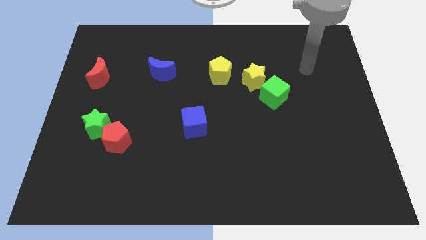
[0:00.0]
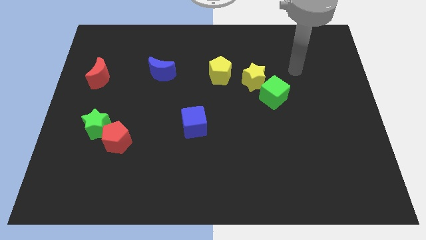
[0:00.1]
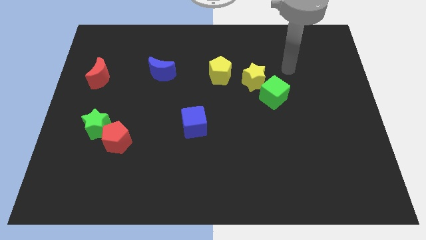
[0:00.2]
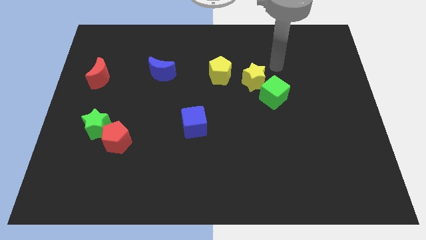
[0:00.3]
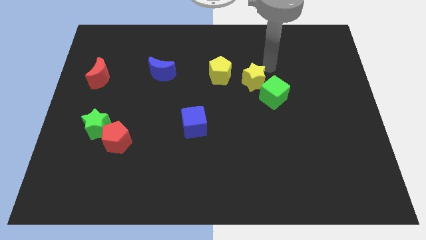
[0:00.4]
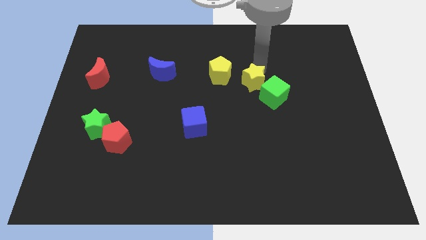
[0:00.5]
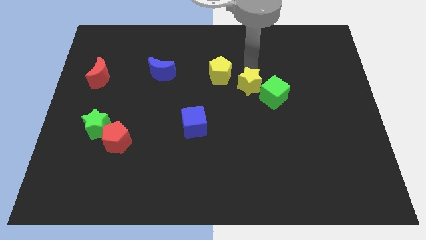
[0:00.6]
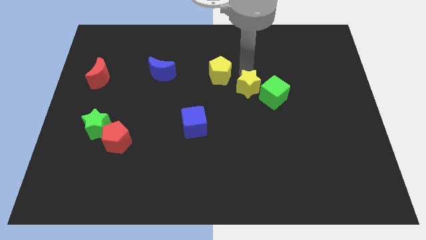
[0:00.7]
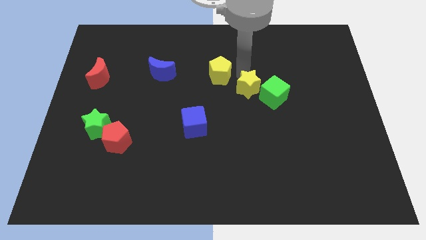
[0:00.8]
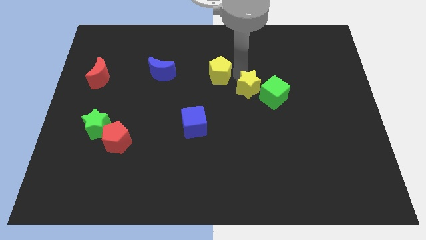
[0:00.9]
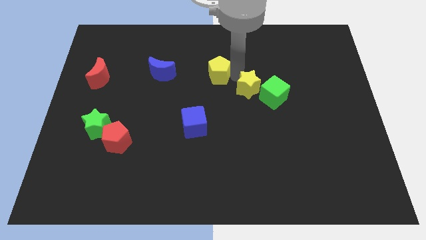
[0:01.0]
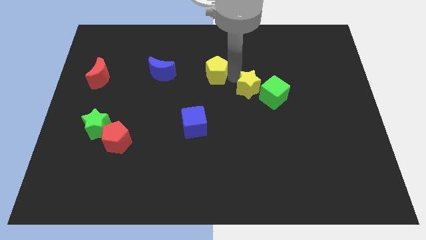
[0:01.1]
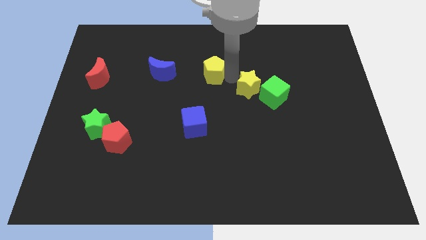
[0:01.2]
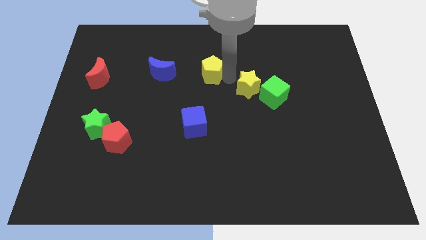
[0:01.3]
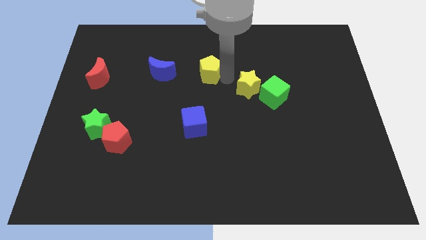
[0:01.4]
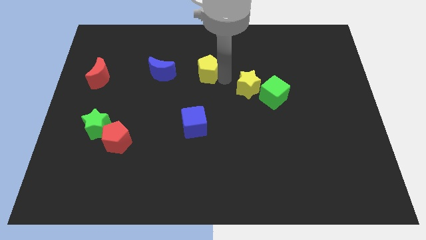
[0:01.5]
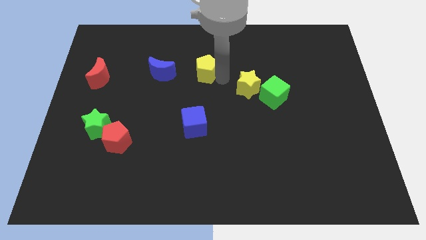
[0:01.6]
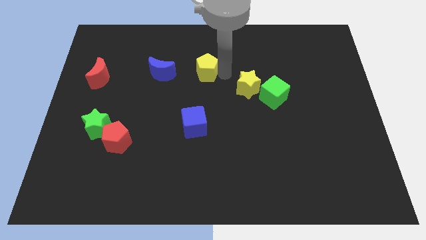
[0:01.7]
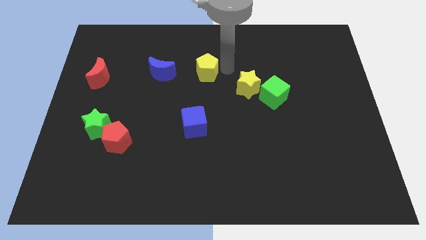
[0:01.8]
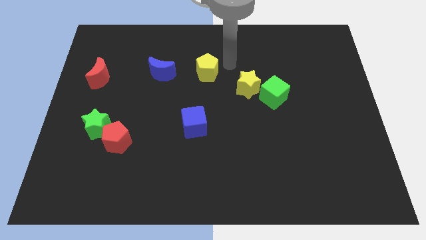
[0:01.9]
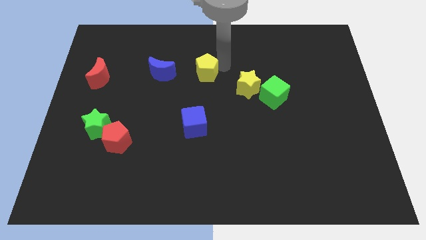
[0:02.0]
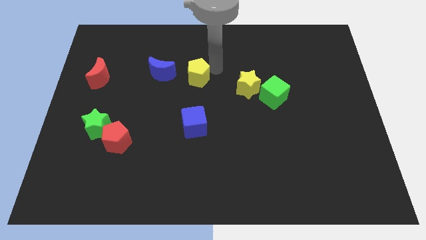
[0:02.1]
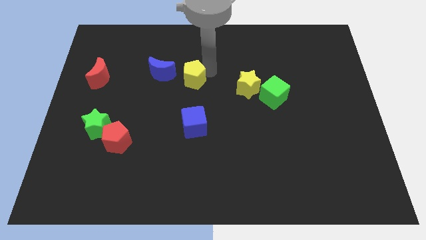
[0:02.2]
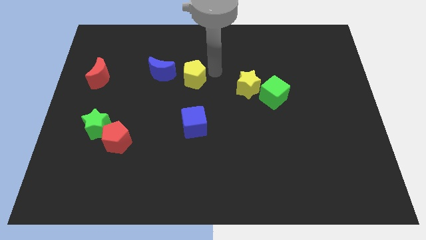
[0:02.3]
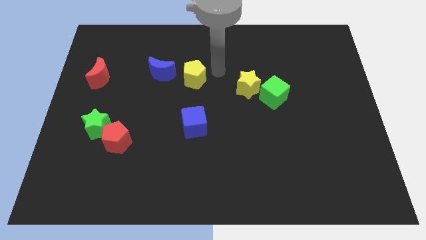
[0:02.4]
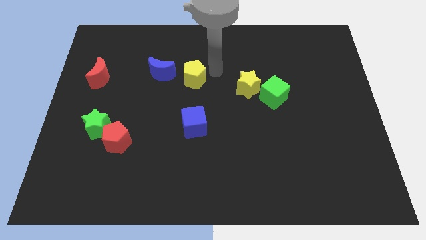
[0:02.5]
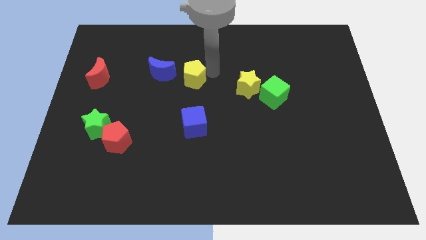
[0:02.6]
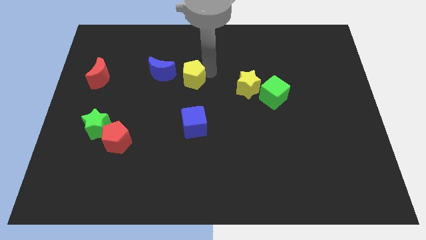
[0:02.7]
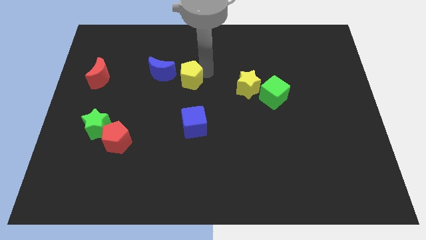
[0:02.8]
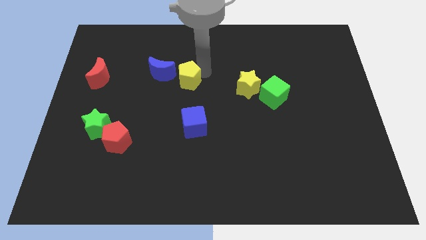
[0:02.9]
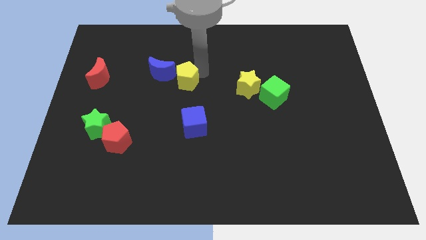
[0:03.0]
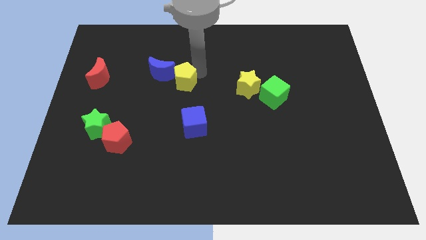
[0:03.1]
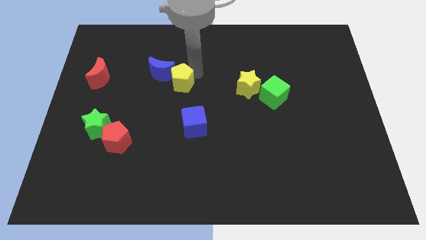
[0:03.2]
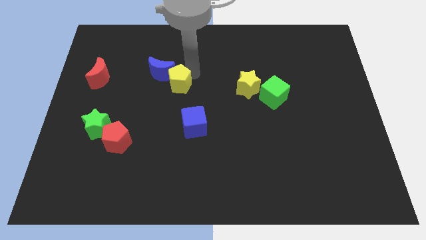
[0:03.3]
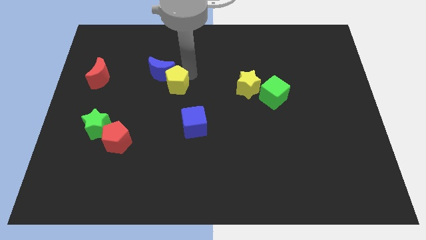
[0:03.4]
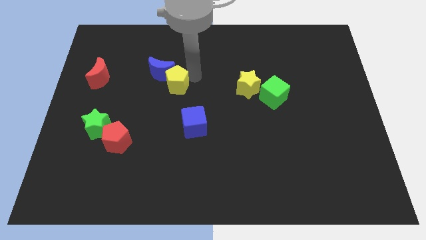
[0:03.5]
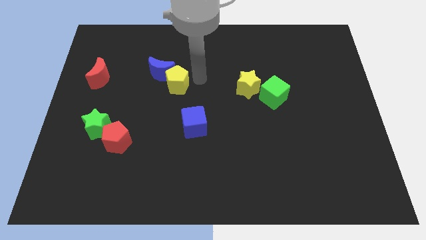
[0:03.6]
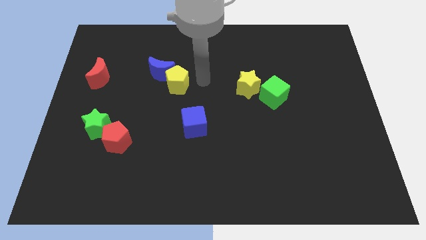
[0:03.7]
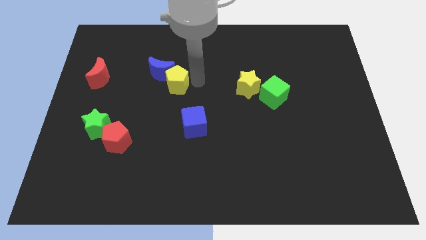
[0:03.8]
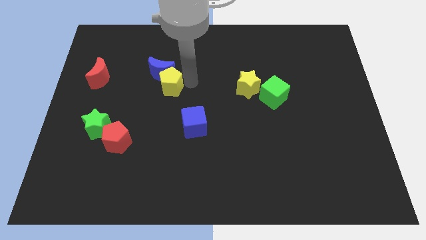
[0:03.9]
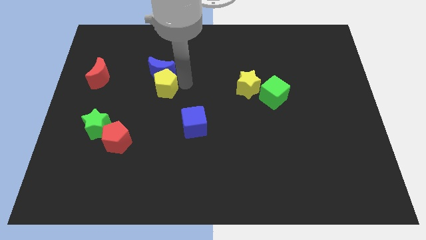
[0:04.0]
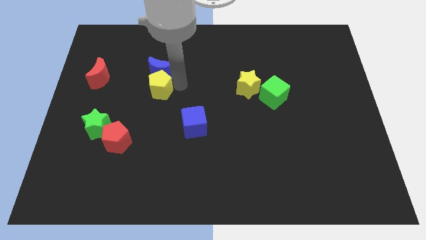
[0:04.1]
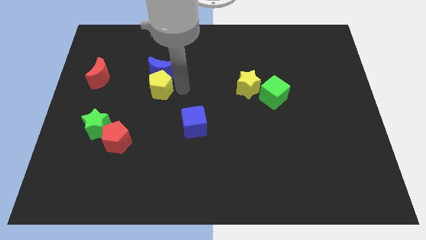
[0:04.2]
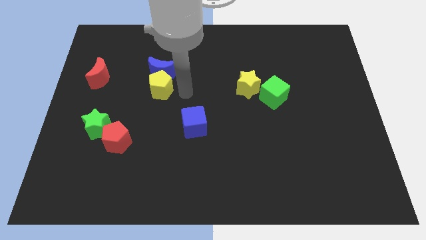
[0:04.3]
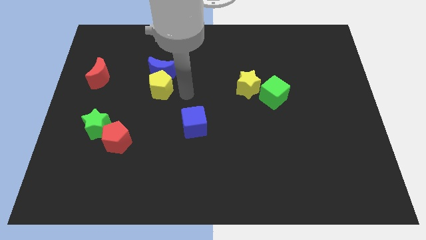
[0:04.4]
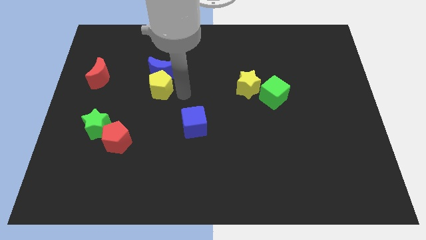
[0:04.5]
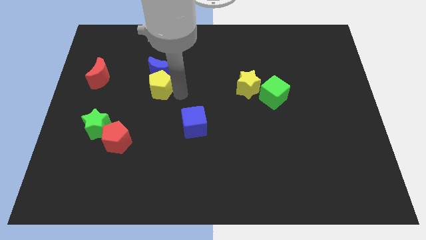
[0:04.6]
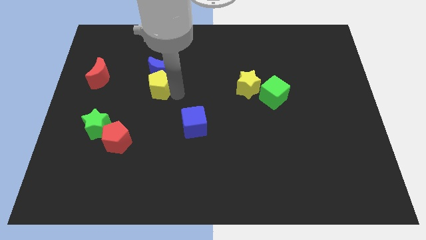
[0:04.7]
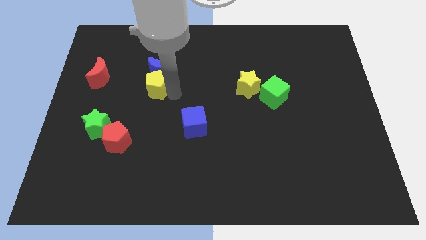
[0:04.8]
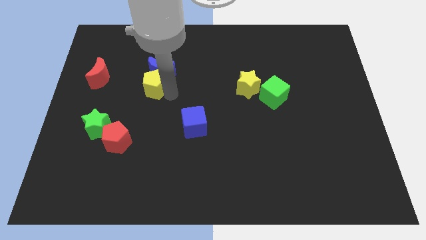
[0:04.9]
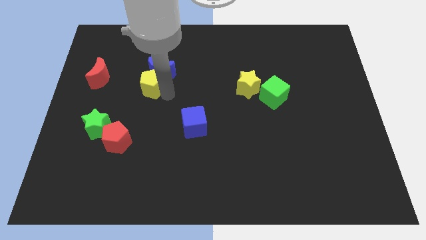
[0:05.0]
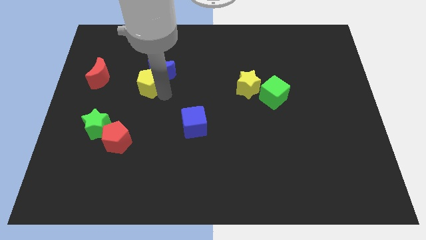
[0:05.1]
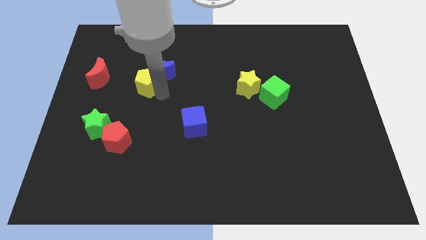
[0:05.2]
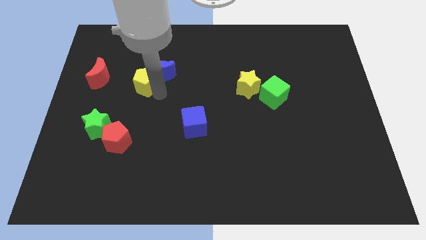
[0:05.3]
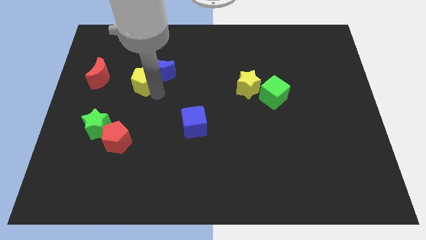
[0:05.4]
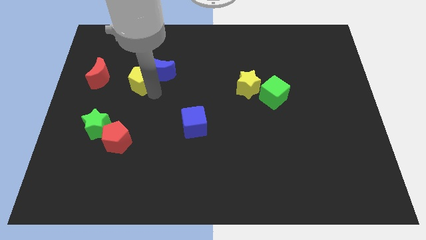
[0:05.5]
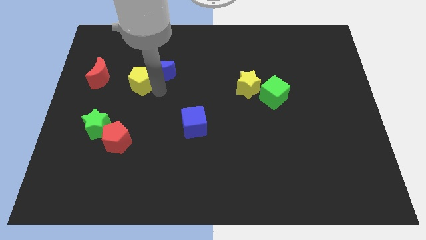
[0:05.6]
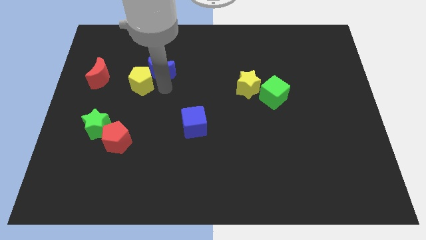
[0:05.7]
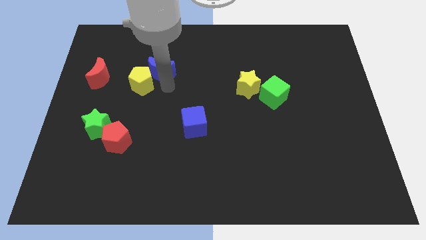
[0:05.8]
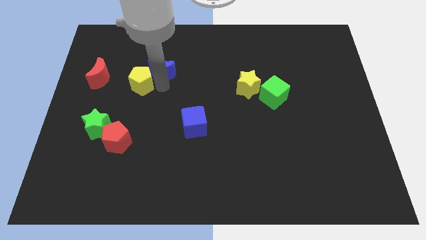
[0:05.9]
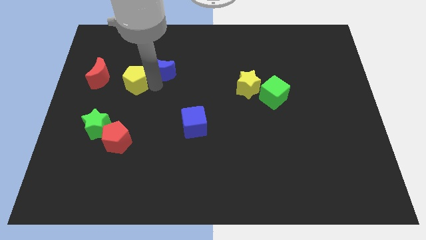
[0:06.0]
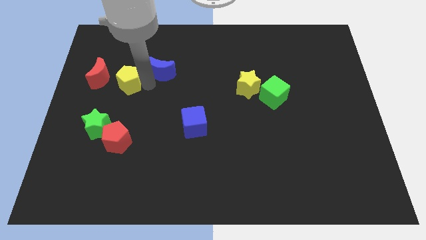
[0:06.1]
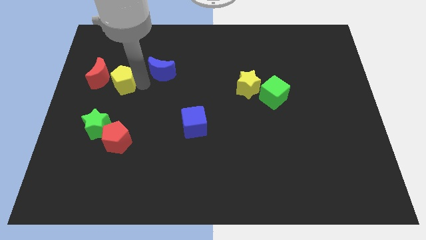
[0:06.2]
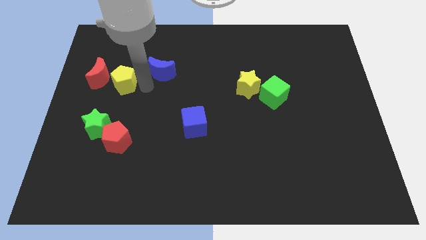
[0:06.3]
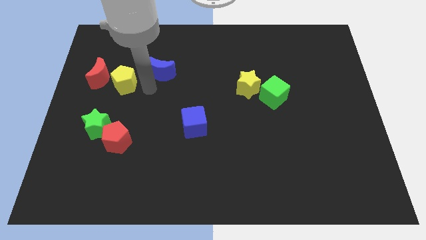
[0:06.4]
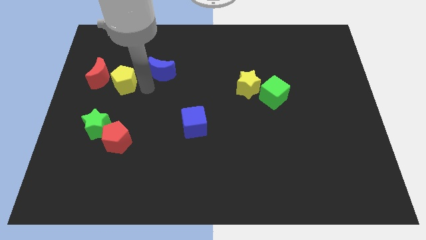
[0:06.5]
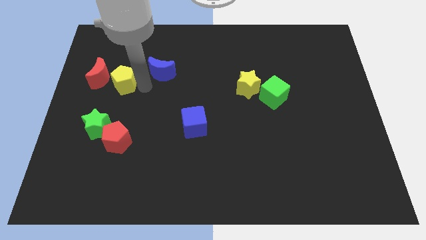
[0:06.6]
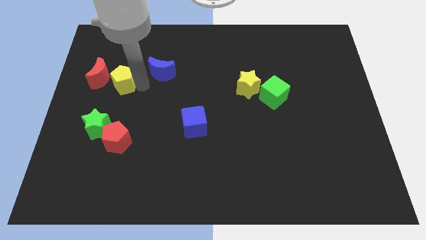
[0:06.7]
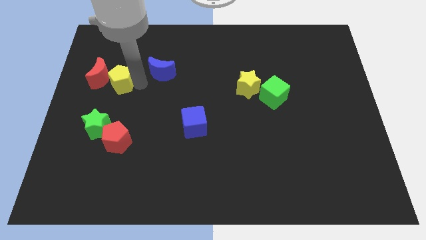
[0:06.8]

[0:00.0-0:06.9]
push the yellow pentagon towards the red moon
